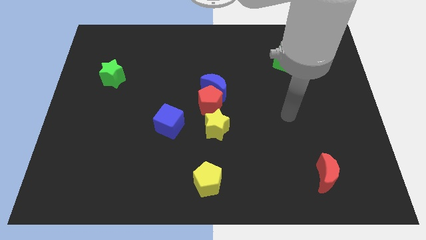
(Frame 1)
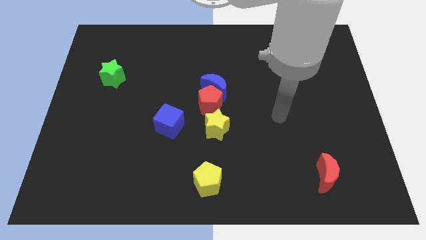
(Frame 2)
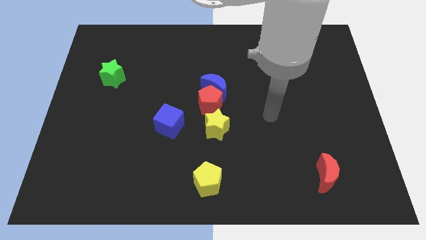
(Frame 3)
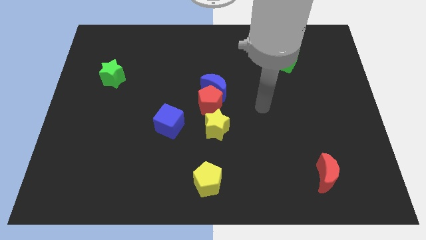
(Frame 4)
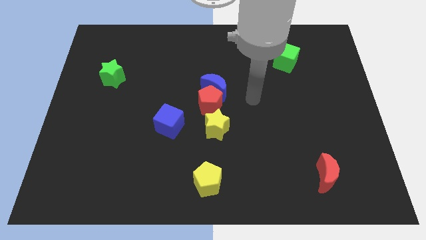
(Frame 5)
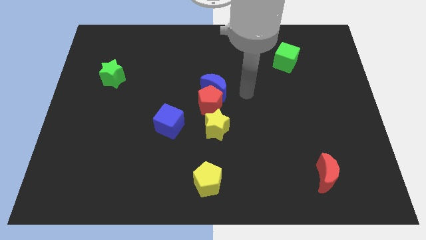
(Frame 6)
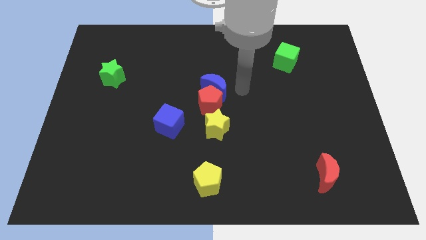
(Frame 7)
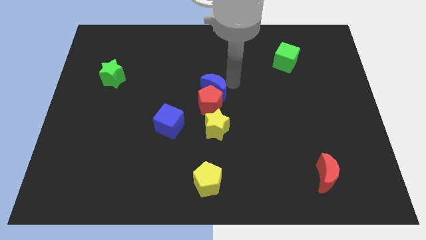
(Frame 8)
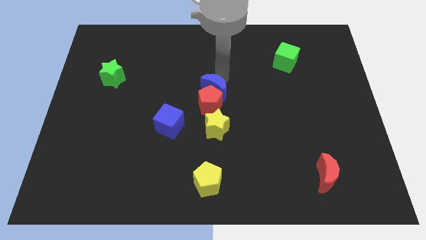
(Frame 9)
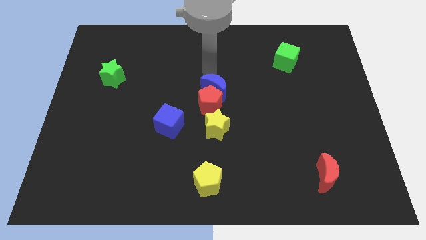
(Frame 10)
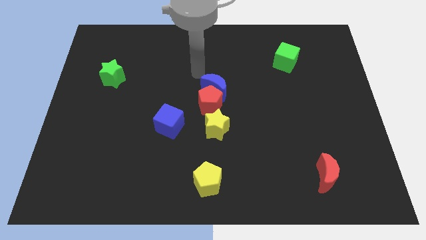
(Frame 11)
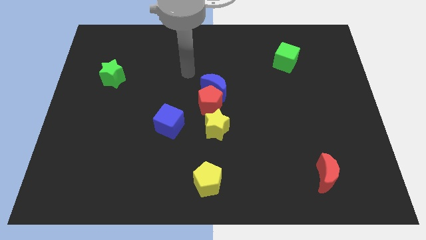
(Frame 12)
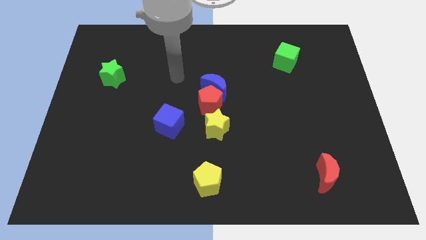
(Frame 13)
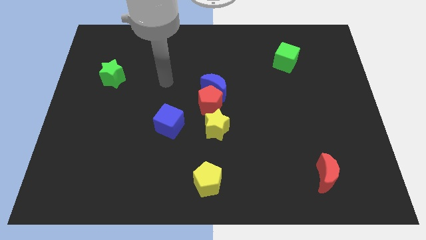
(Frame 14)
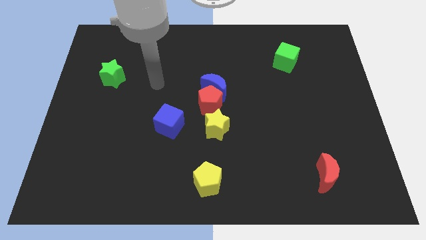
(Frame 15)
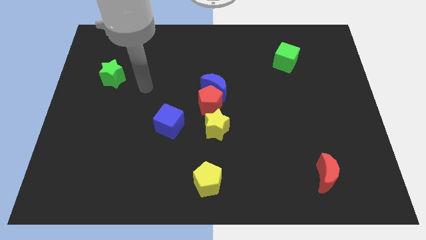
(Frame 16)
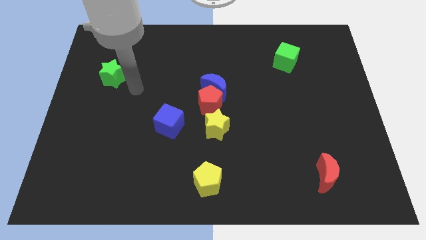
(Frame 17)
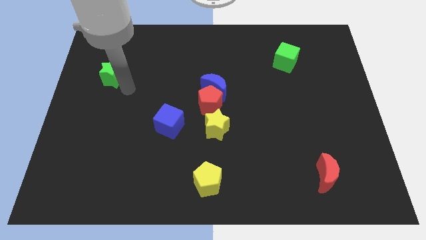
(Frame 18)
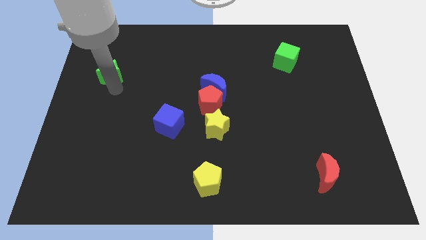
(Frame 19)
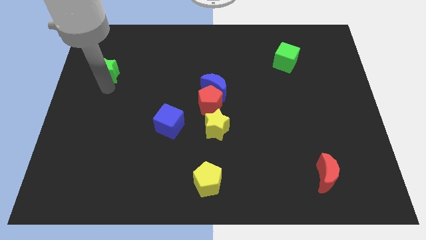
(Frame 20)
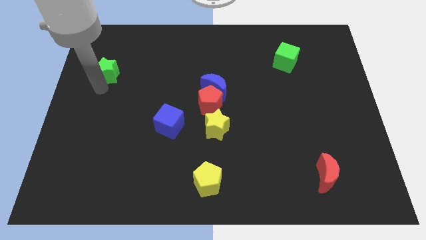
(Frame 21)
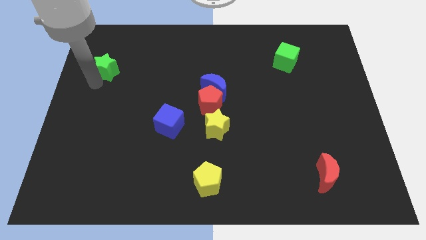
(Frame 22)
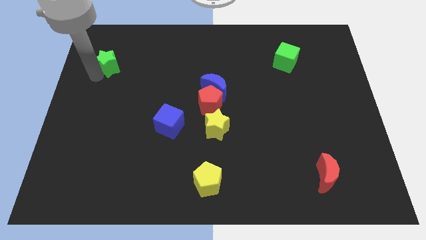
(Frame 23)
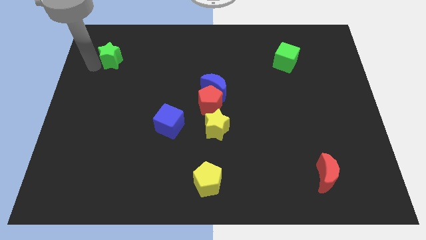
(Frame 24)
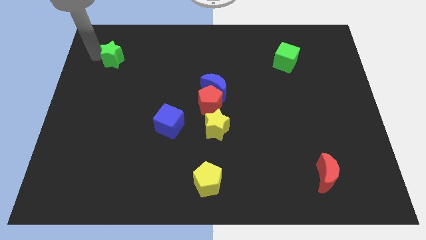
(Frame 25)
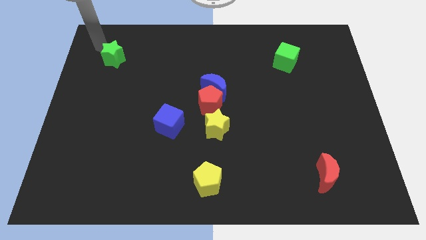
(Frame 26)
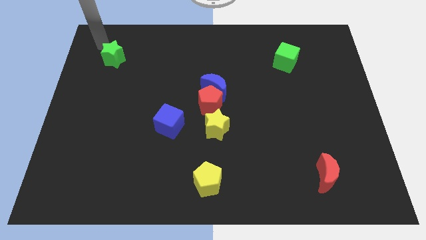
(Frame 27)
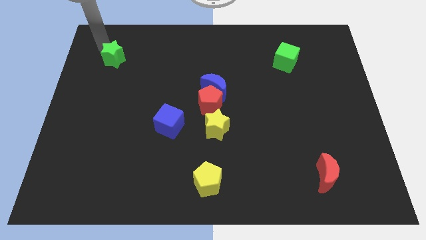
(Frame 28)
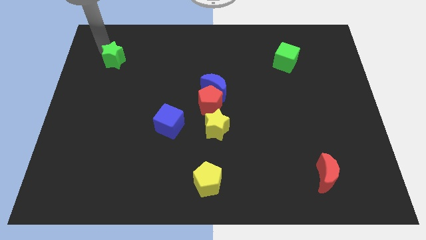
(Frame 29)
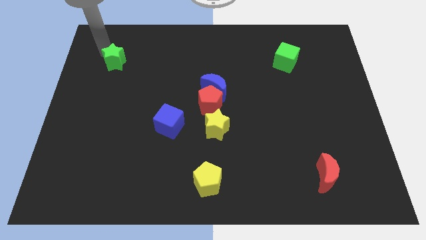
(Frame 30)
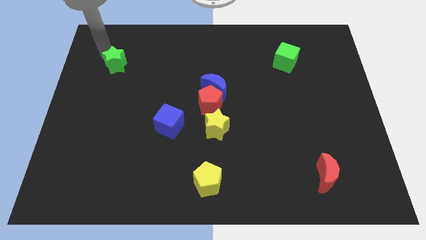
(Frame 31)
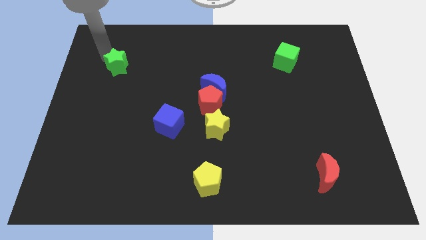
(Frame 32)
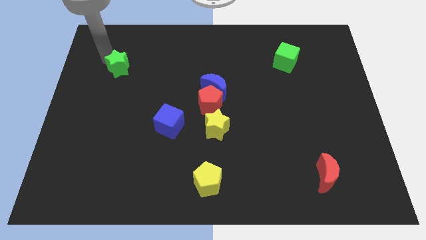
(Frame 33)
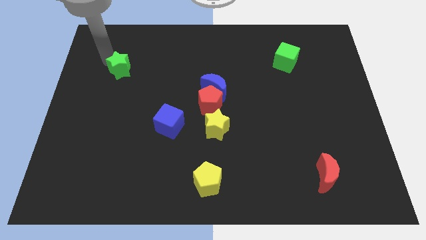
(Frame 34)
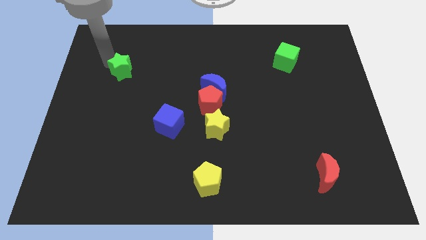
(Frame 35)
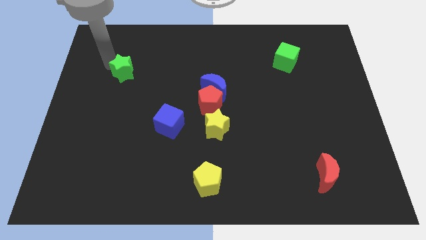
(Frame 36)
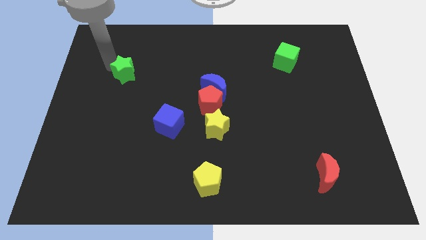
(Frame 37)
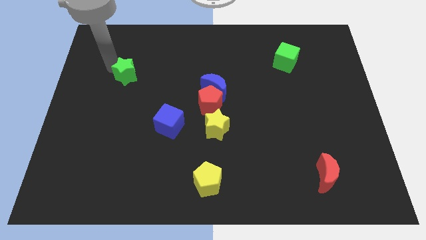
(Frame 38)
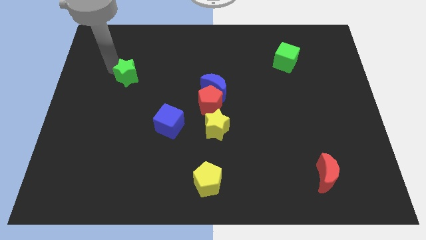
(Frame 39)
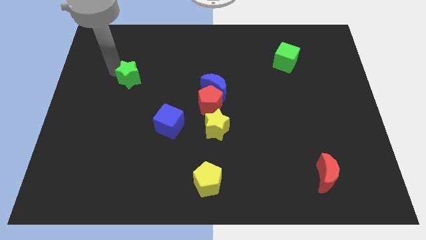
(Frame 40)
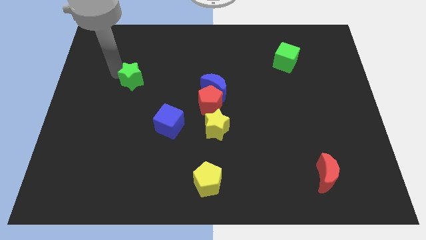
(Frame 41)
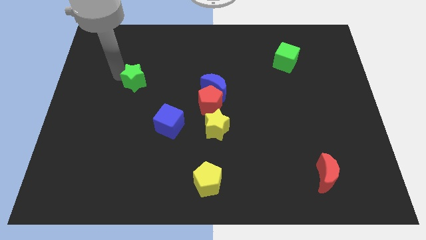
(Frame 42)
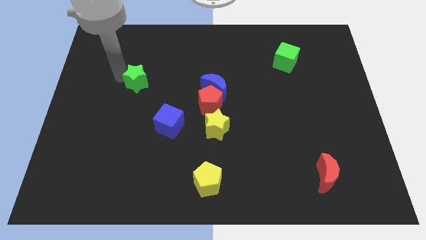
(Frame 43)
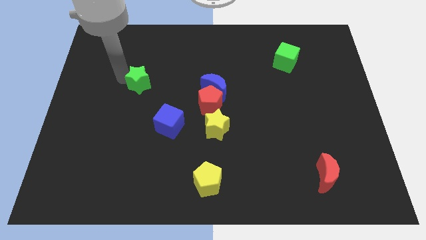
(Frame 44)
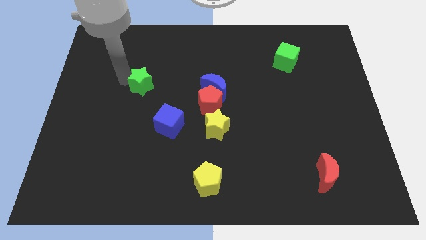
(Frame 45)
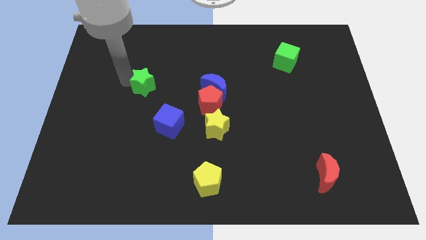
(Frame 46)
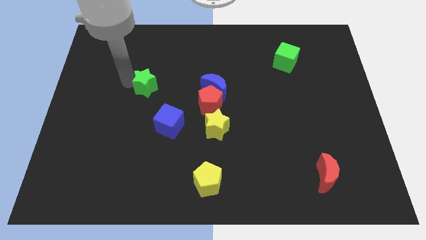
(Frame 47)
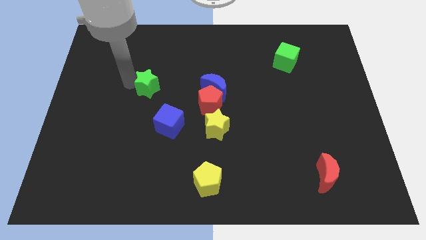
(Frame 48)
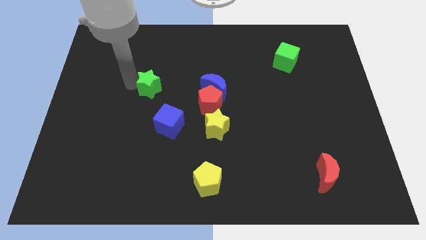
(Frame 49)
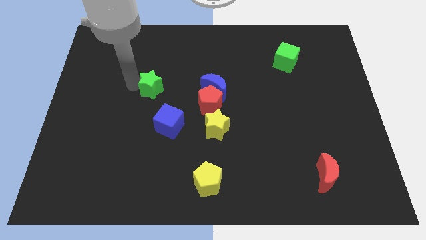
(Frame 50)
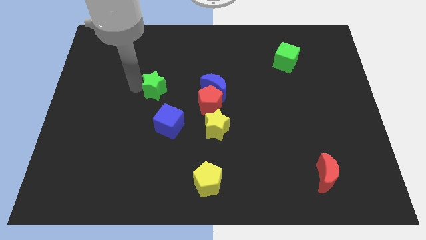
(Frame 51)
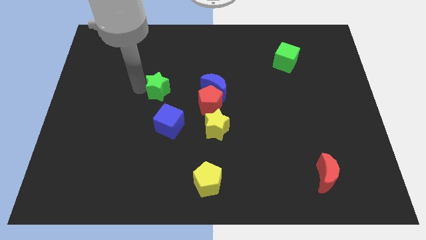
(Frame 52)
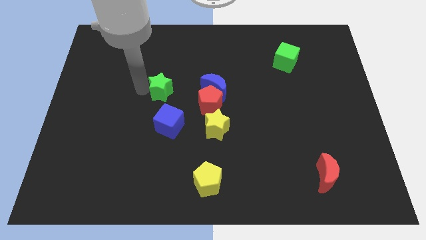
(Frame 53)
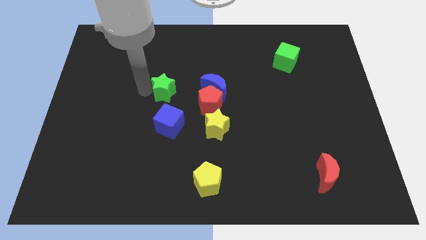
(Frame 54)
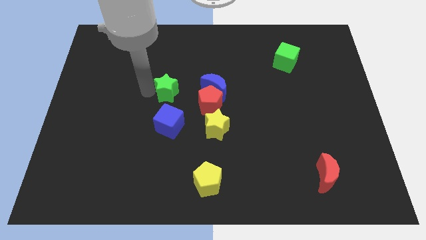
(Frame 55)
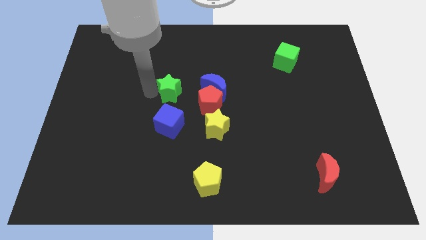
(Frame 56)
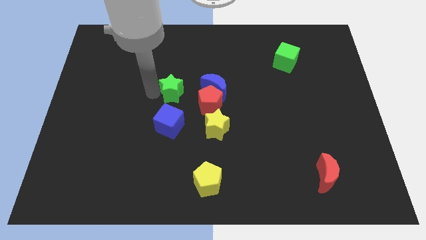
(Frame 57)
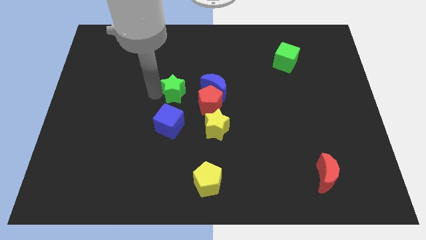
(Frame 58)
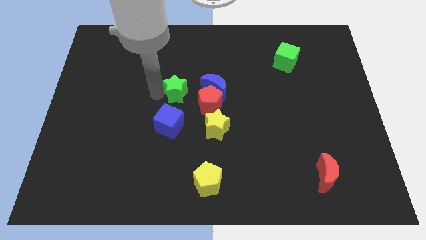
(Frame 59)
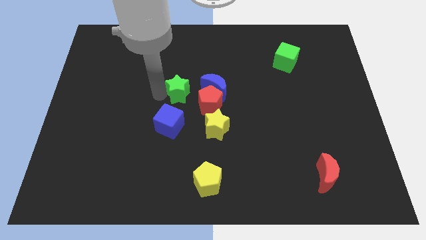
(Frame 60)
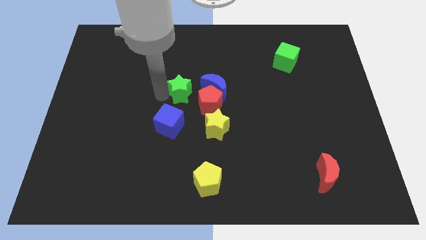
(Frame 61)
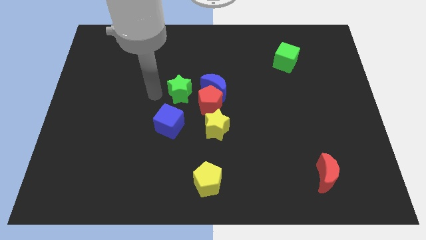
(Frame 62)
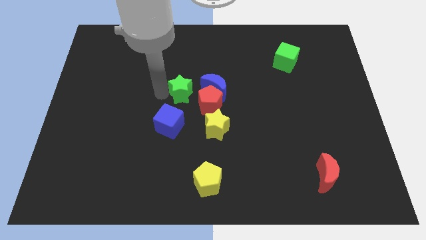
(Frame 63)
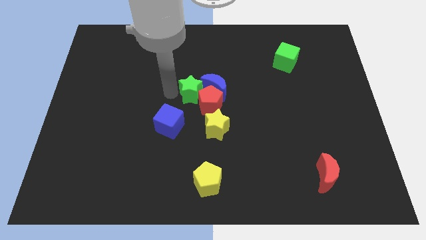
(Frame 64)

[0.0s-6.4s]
slide the green star next to the blue moon

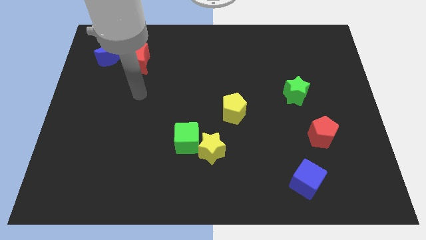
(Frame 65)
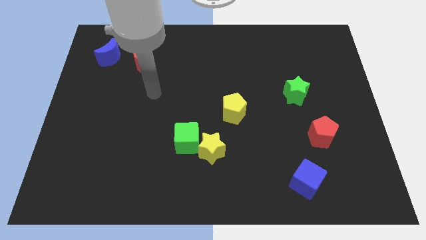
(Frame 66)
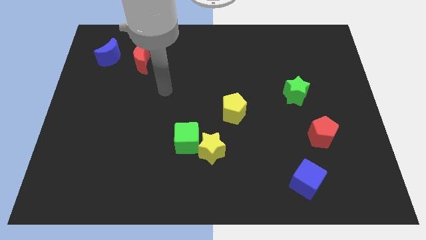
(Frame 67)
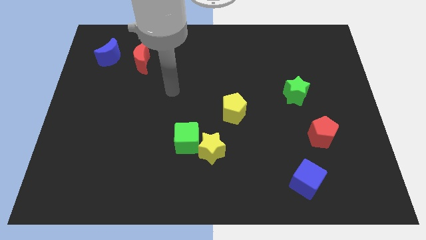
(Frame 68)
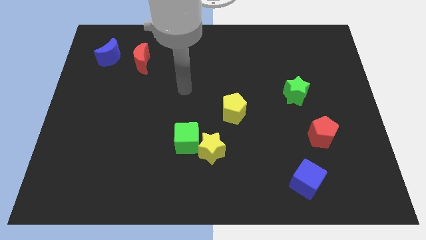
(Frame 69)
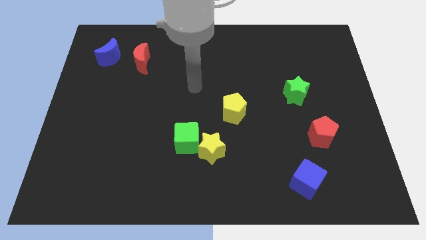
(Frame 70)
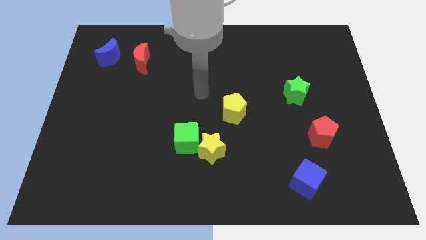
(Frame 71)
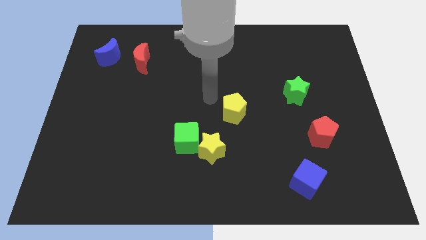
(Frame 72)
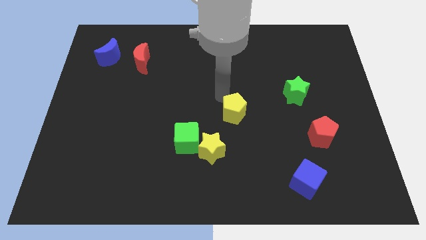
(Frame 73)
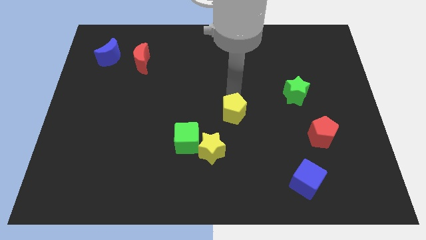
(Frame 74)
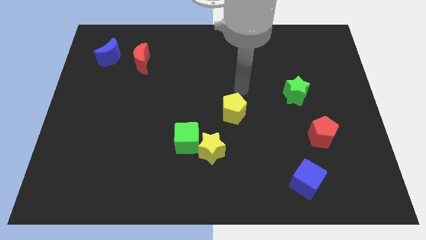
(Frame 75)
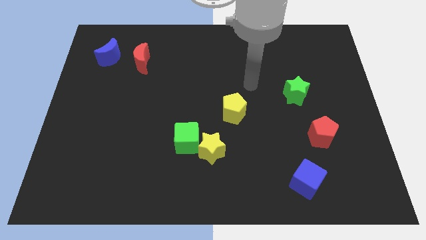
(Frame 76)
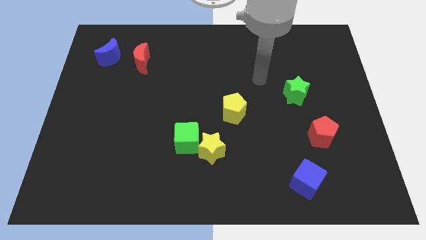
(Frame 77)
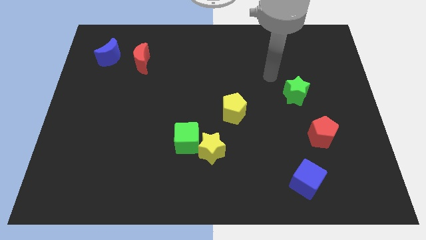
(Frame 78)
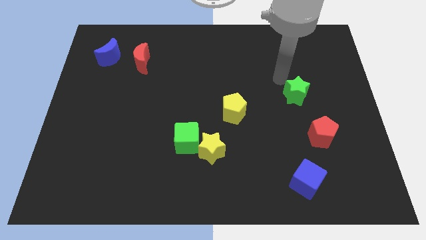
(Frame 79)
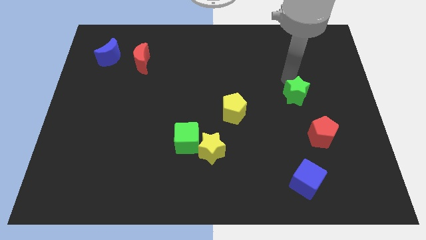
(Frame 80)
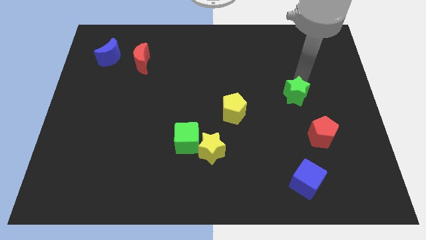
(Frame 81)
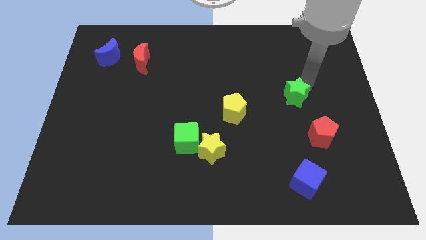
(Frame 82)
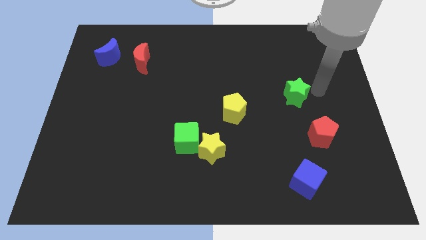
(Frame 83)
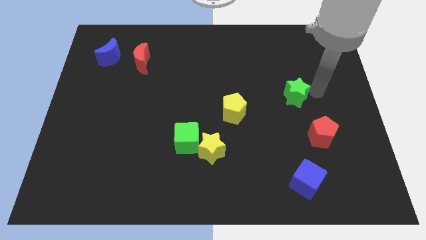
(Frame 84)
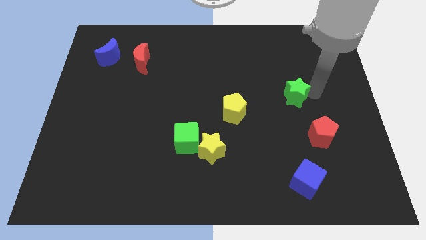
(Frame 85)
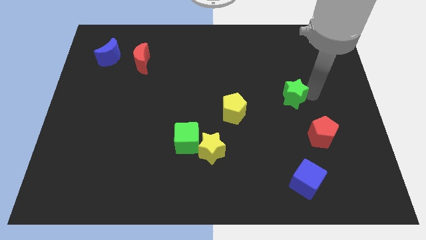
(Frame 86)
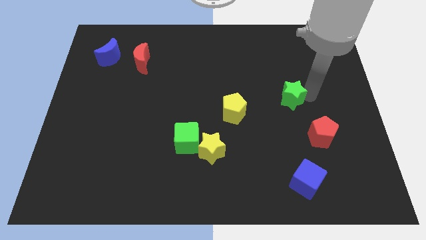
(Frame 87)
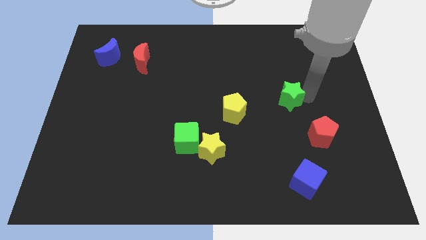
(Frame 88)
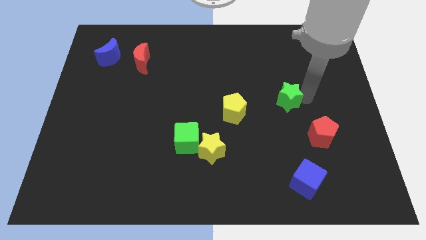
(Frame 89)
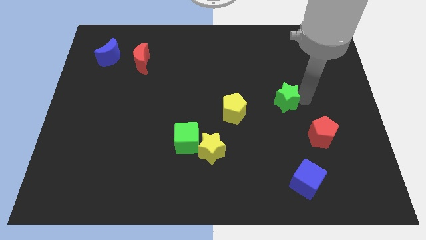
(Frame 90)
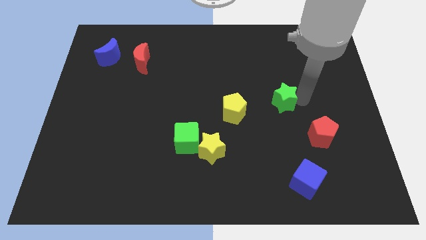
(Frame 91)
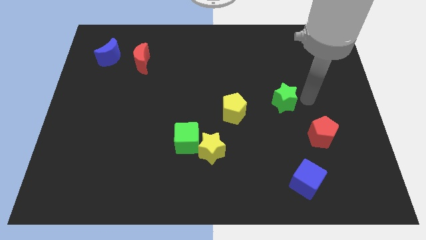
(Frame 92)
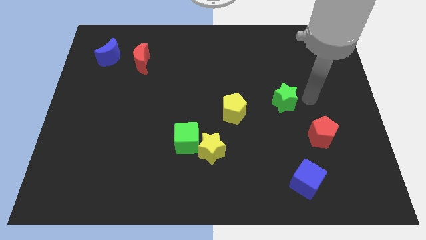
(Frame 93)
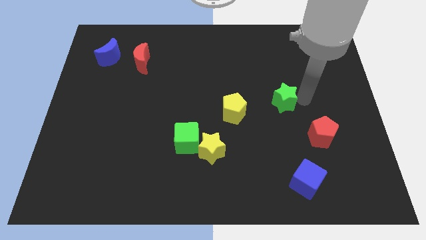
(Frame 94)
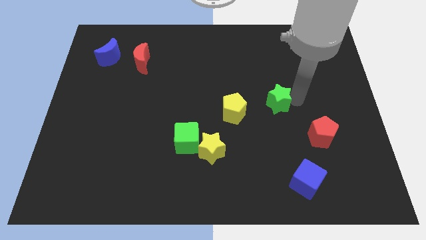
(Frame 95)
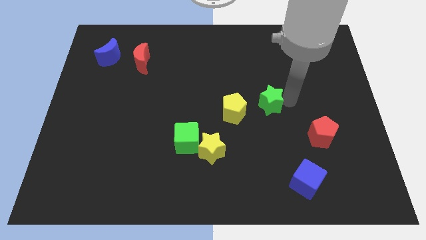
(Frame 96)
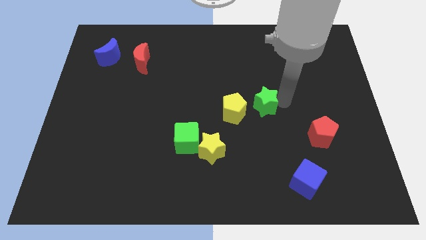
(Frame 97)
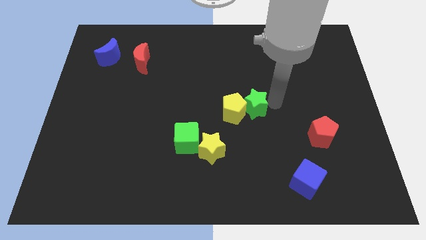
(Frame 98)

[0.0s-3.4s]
put the green star towards the yellow pentagon
